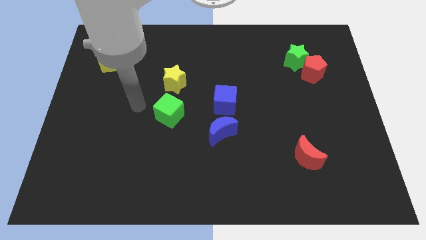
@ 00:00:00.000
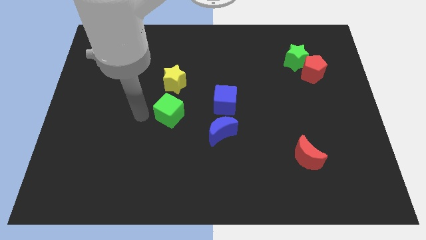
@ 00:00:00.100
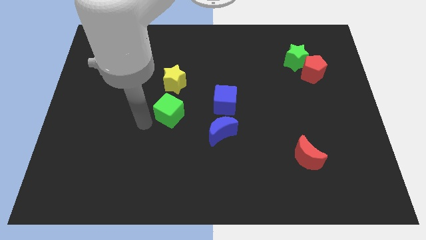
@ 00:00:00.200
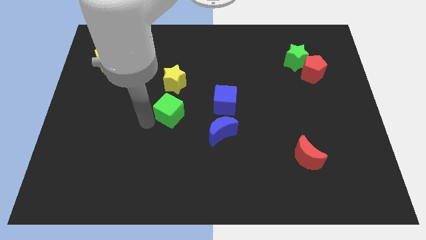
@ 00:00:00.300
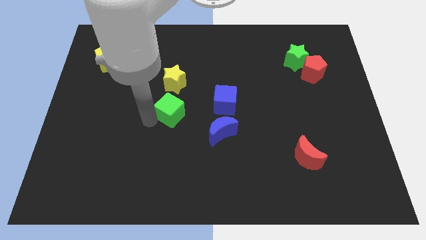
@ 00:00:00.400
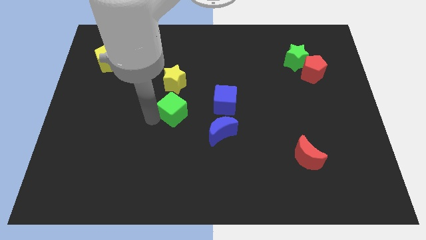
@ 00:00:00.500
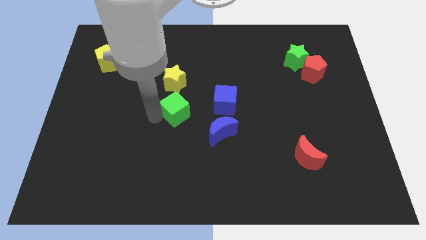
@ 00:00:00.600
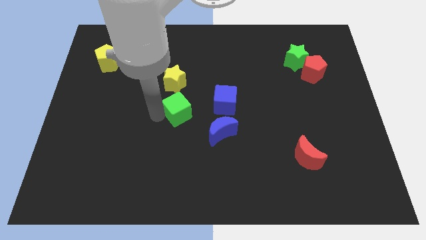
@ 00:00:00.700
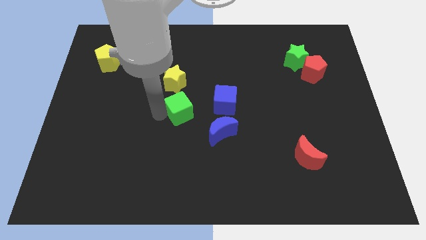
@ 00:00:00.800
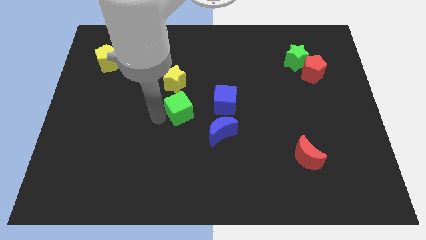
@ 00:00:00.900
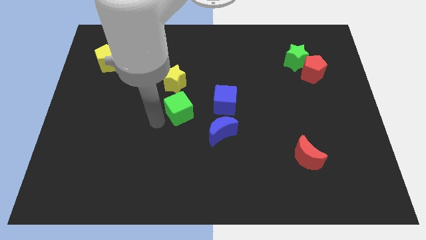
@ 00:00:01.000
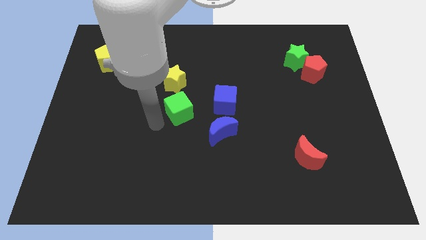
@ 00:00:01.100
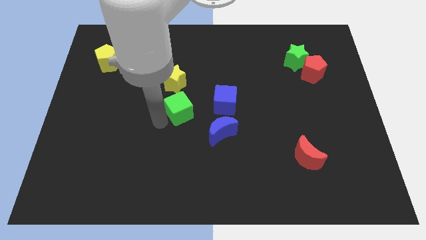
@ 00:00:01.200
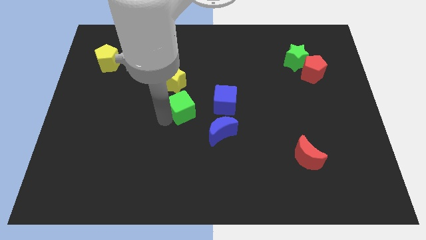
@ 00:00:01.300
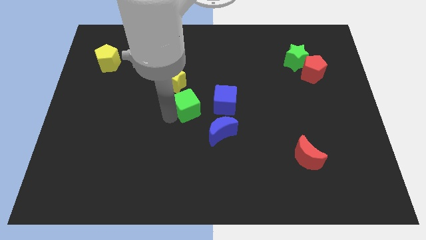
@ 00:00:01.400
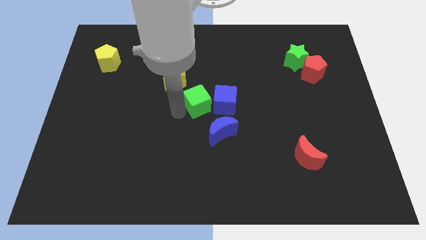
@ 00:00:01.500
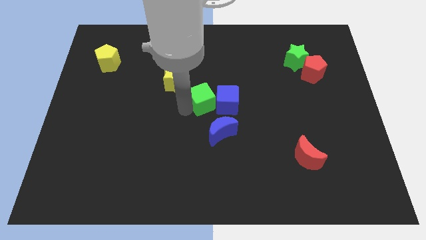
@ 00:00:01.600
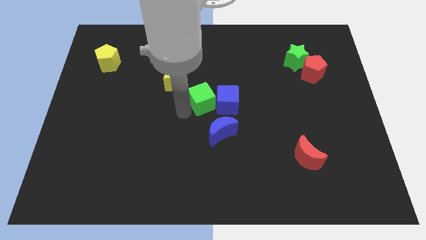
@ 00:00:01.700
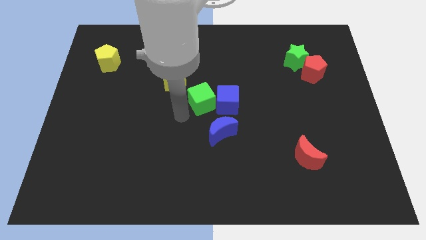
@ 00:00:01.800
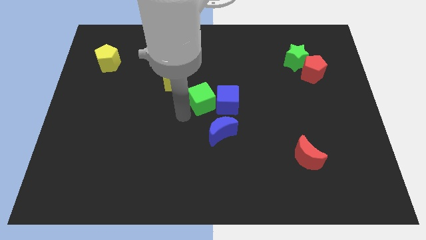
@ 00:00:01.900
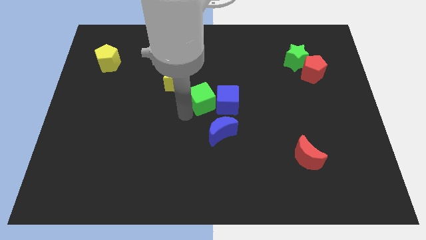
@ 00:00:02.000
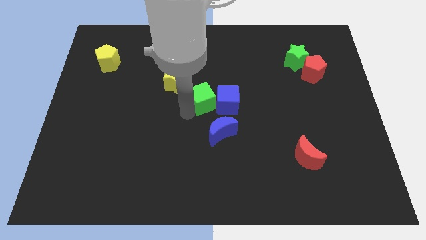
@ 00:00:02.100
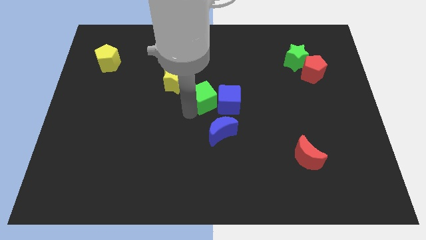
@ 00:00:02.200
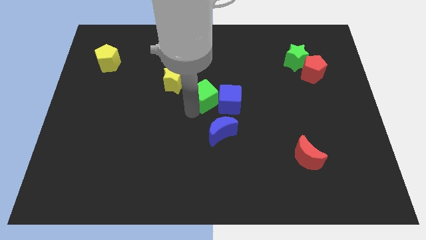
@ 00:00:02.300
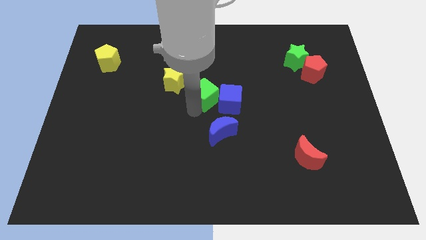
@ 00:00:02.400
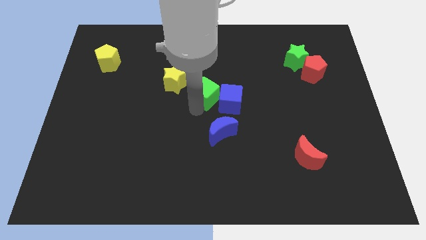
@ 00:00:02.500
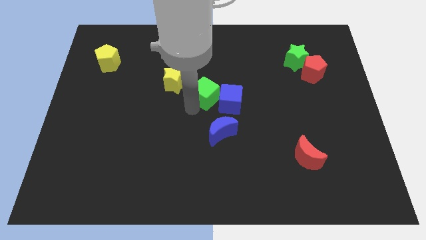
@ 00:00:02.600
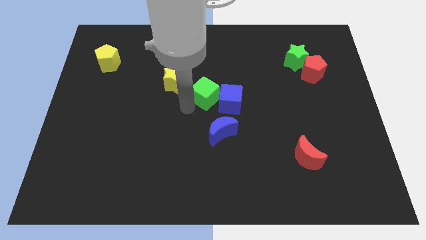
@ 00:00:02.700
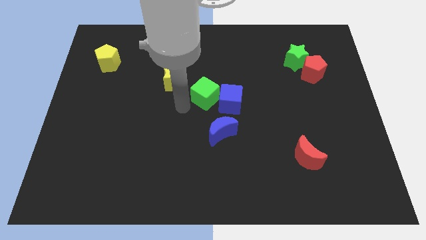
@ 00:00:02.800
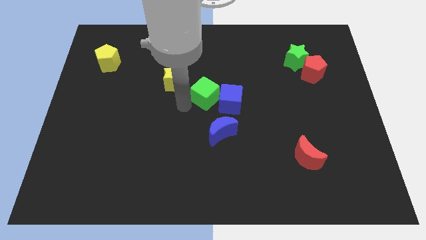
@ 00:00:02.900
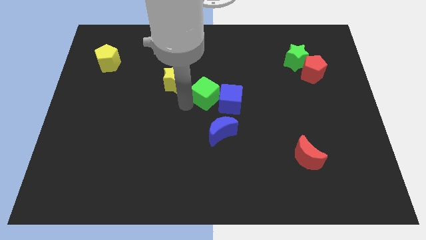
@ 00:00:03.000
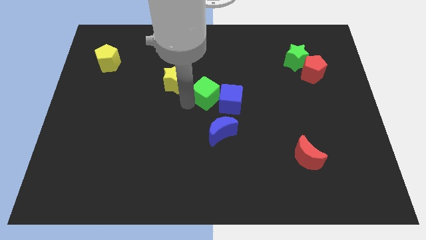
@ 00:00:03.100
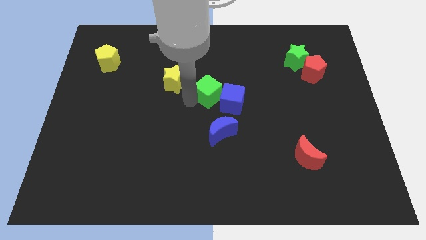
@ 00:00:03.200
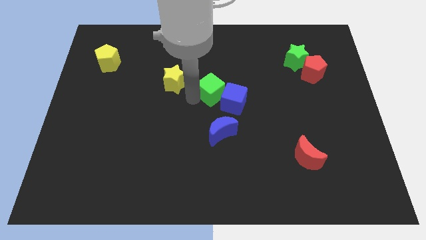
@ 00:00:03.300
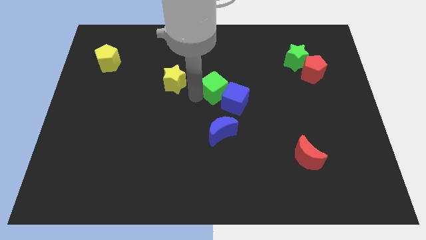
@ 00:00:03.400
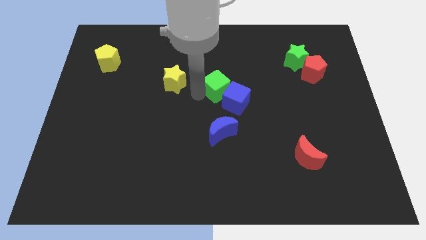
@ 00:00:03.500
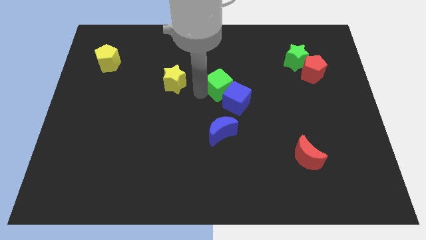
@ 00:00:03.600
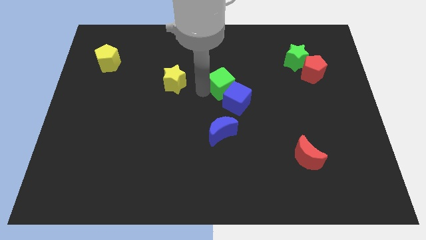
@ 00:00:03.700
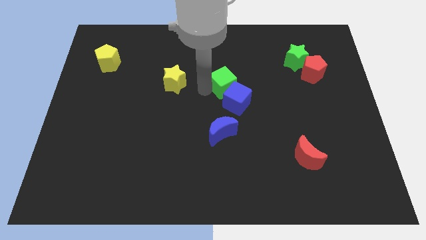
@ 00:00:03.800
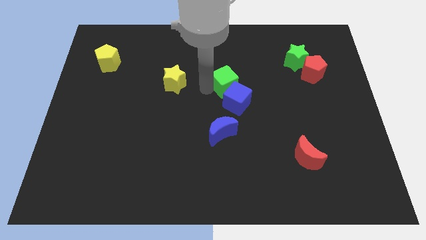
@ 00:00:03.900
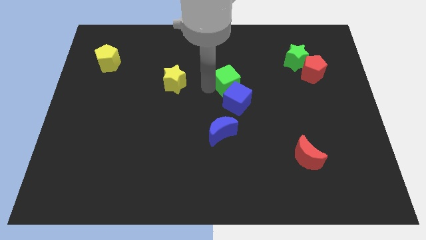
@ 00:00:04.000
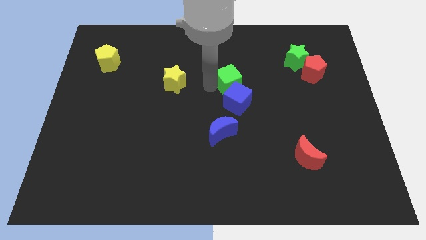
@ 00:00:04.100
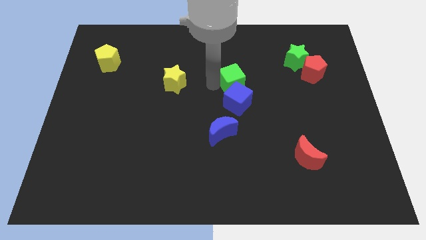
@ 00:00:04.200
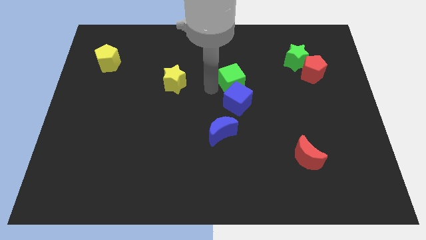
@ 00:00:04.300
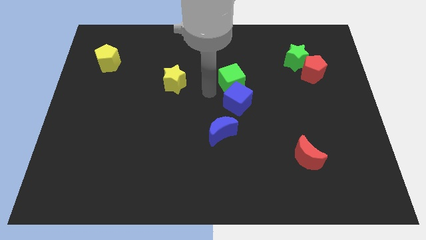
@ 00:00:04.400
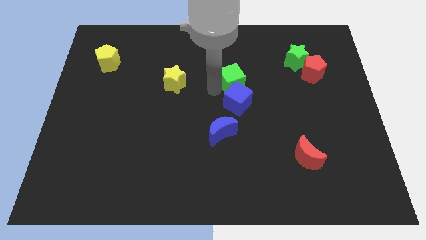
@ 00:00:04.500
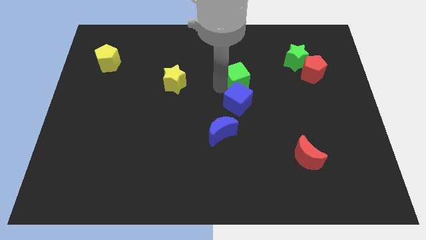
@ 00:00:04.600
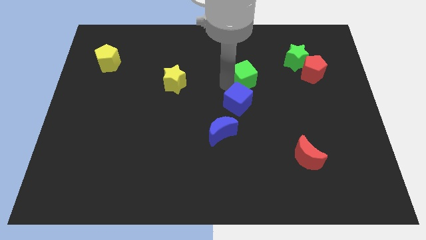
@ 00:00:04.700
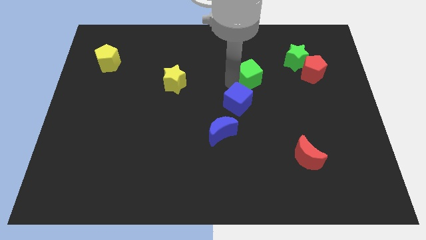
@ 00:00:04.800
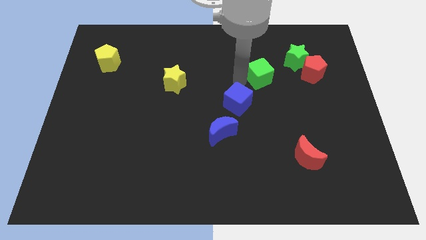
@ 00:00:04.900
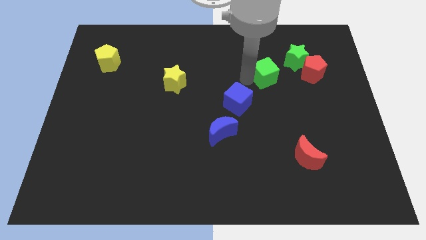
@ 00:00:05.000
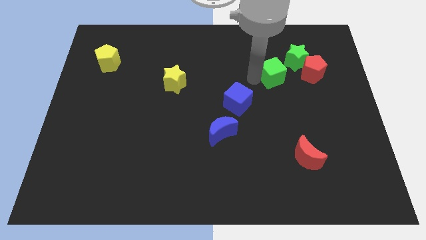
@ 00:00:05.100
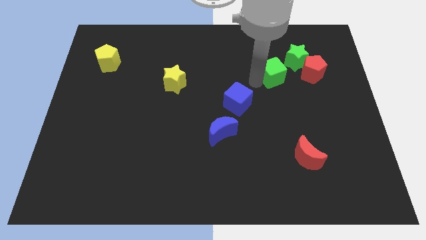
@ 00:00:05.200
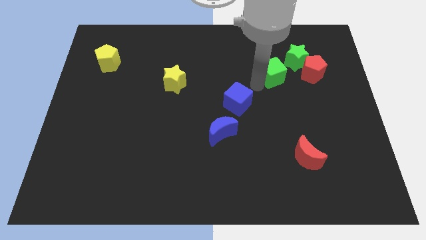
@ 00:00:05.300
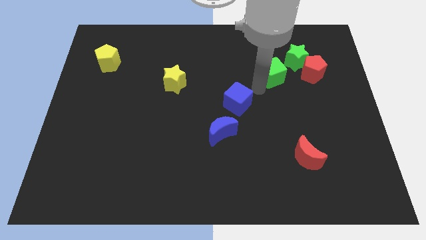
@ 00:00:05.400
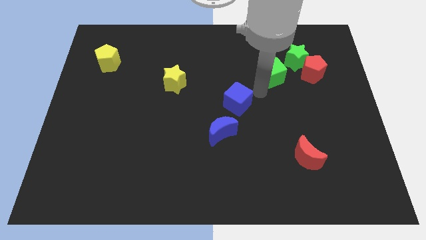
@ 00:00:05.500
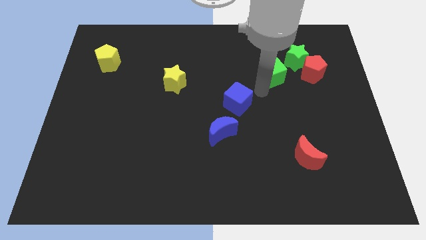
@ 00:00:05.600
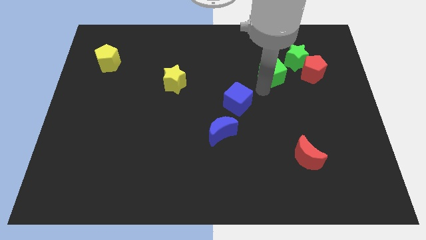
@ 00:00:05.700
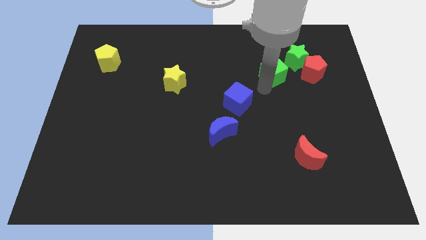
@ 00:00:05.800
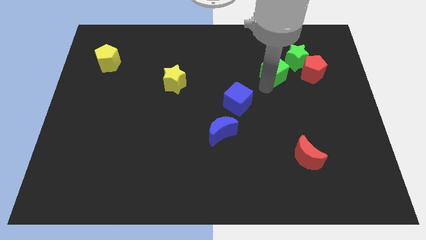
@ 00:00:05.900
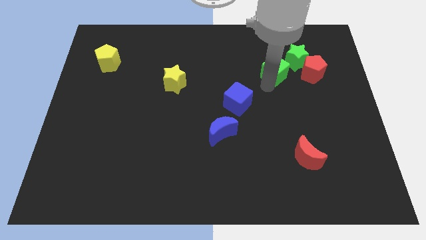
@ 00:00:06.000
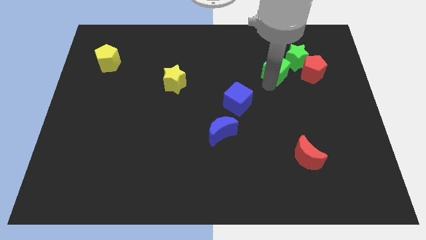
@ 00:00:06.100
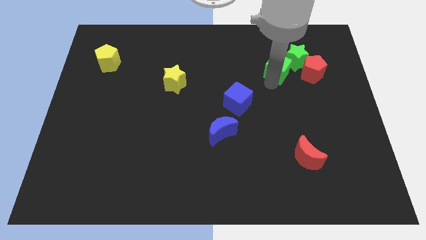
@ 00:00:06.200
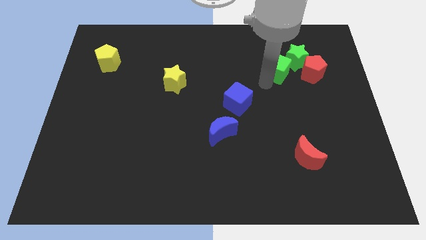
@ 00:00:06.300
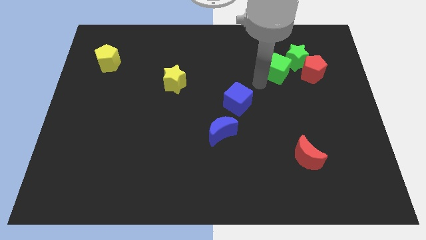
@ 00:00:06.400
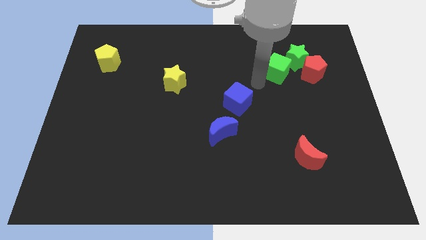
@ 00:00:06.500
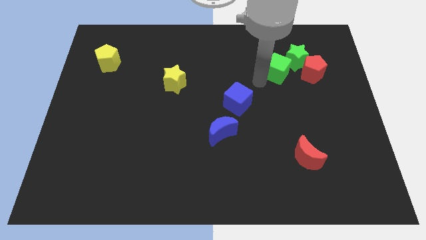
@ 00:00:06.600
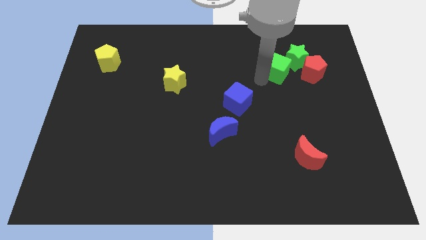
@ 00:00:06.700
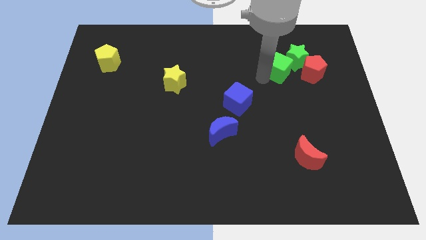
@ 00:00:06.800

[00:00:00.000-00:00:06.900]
push the green cube close to the green star
